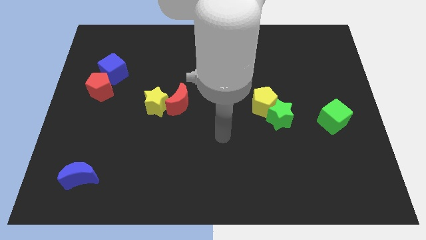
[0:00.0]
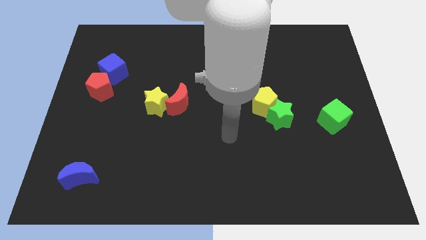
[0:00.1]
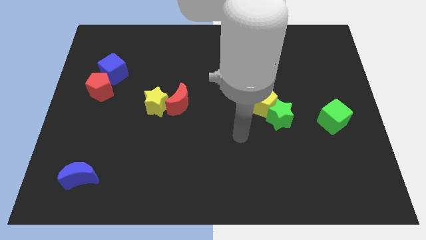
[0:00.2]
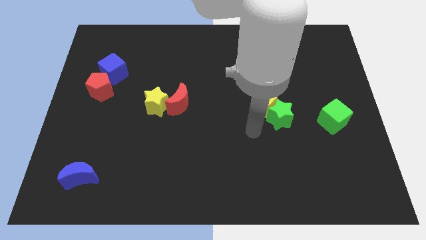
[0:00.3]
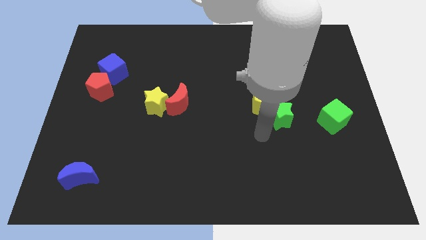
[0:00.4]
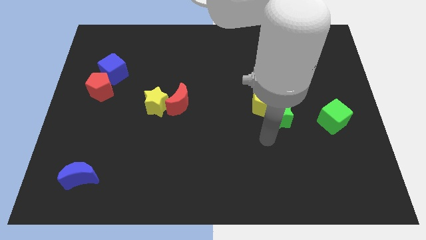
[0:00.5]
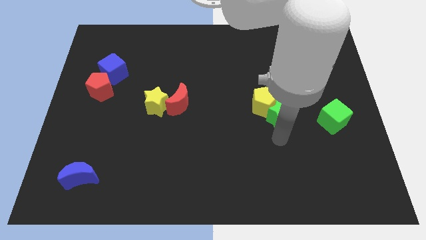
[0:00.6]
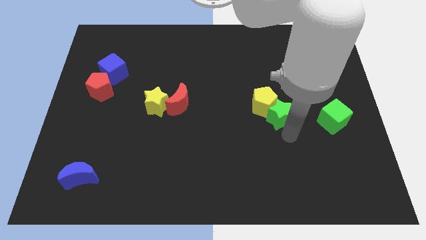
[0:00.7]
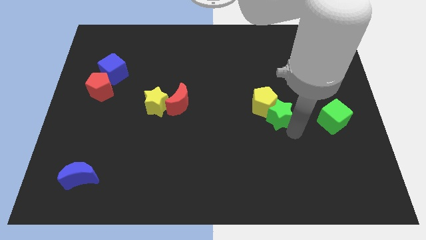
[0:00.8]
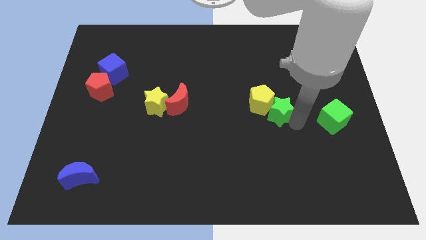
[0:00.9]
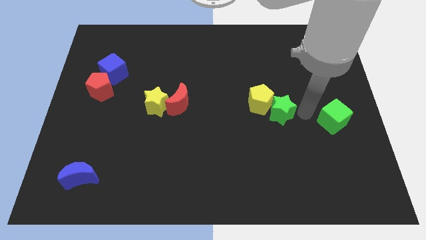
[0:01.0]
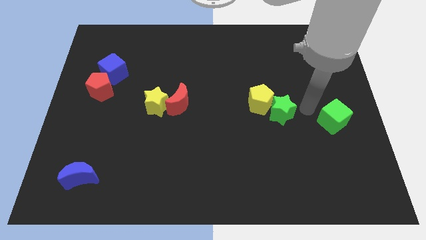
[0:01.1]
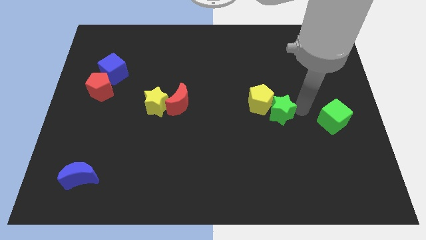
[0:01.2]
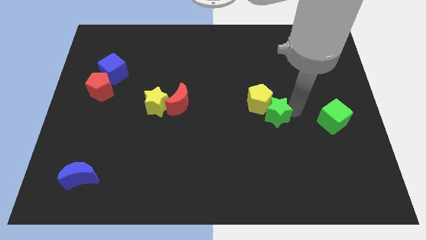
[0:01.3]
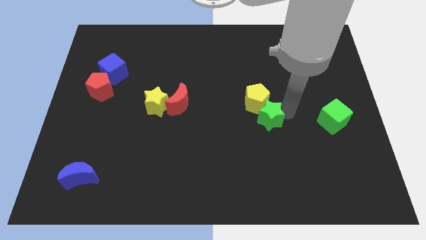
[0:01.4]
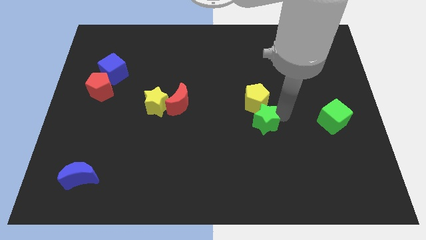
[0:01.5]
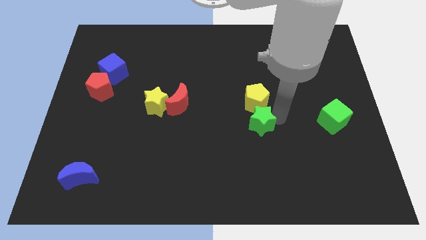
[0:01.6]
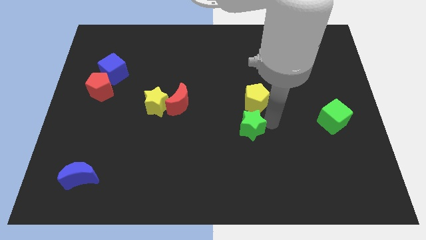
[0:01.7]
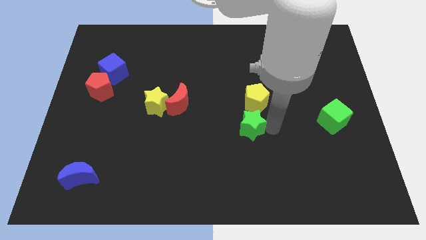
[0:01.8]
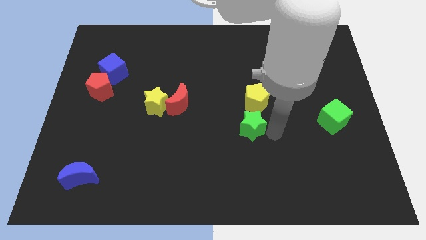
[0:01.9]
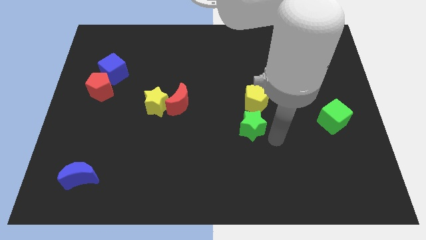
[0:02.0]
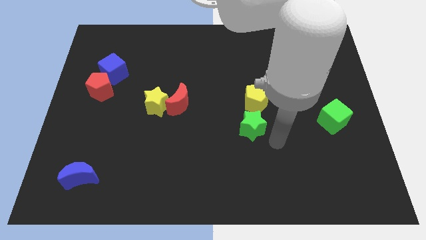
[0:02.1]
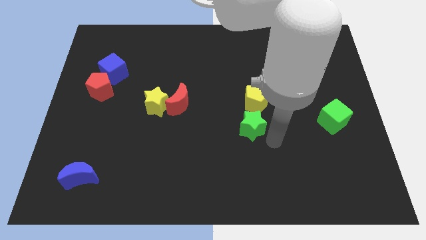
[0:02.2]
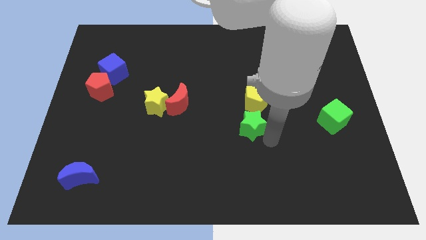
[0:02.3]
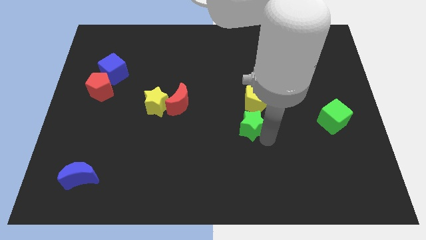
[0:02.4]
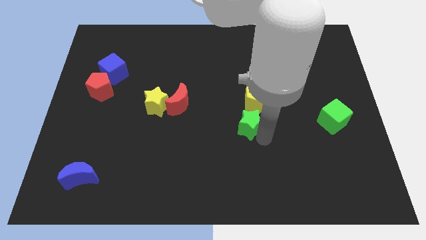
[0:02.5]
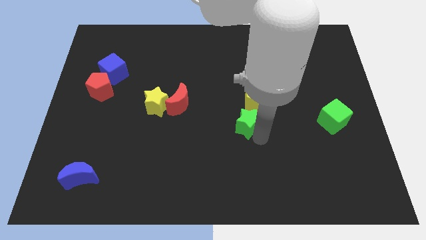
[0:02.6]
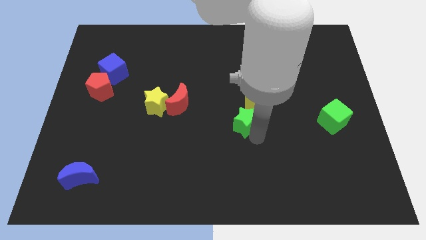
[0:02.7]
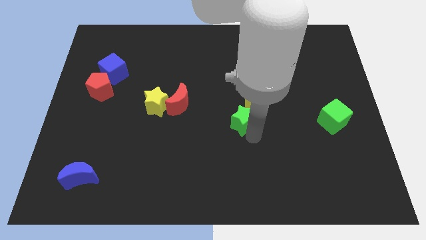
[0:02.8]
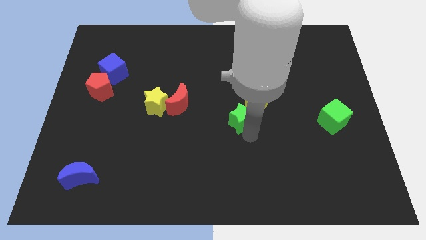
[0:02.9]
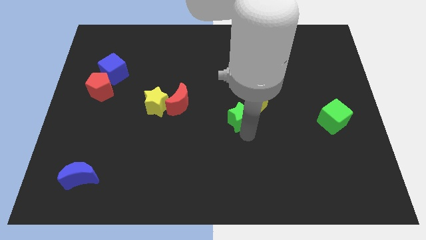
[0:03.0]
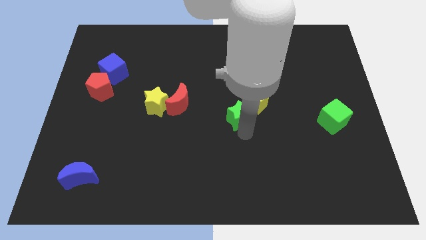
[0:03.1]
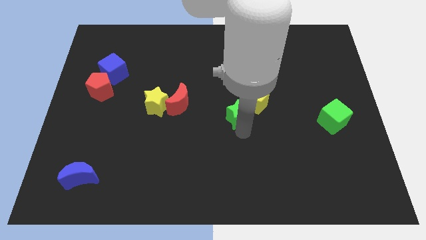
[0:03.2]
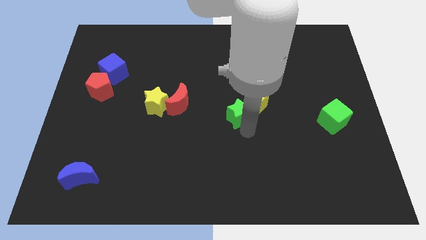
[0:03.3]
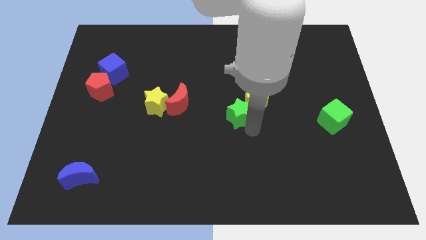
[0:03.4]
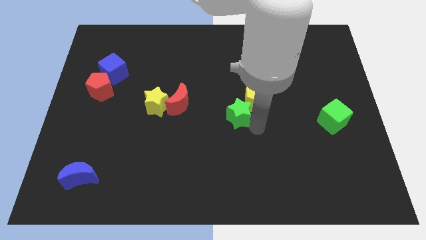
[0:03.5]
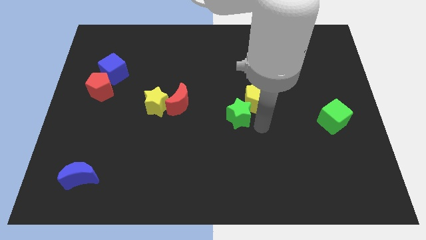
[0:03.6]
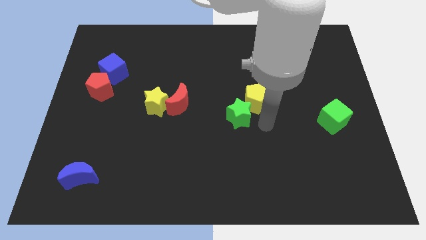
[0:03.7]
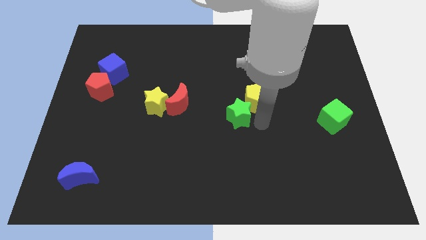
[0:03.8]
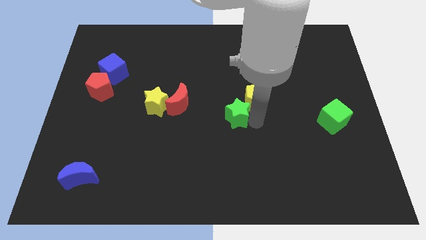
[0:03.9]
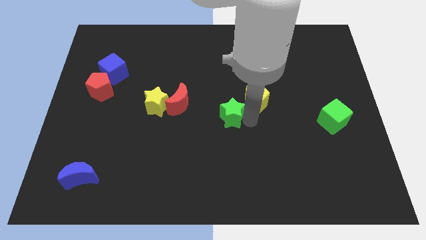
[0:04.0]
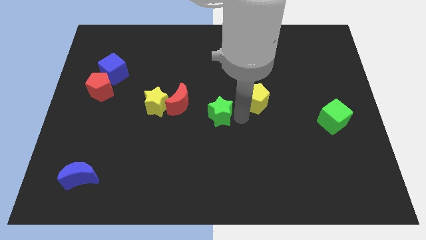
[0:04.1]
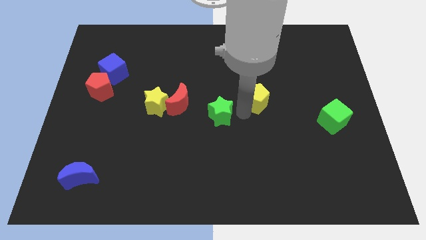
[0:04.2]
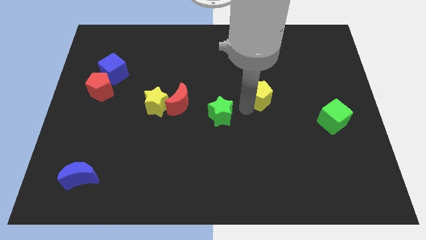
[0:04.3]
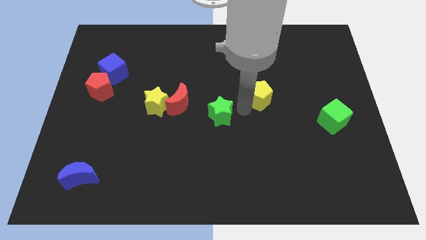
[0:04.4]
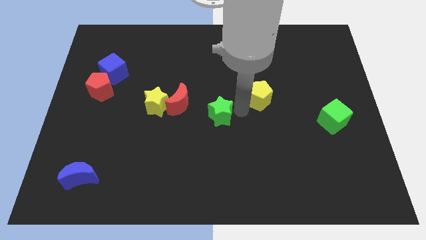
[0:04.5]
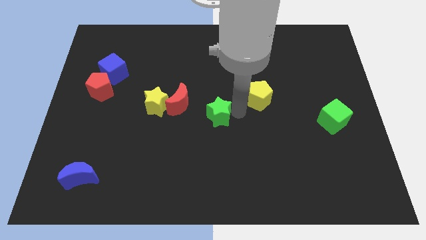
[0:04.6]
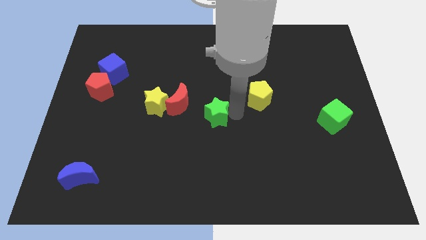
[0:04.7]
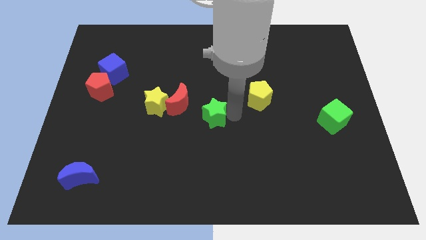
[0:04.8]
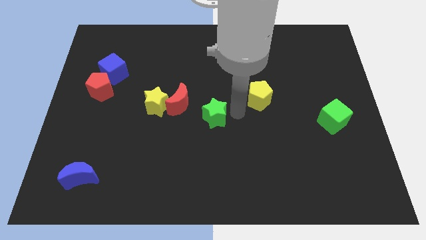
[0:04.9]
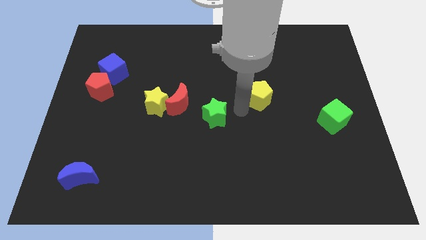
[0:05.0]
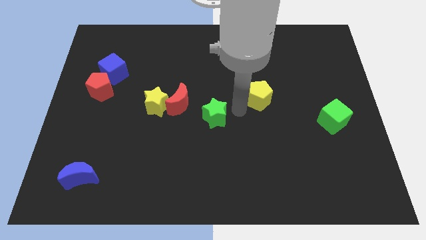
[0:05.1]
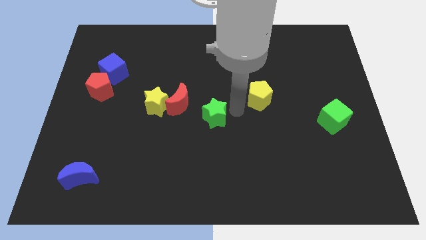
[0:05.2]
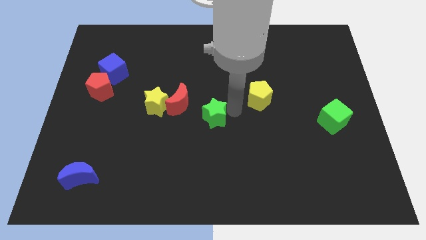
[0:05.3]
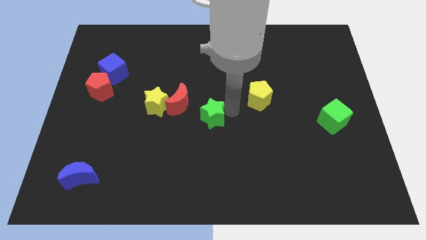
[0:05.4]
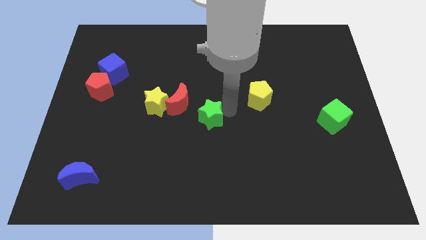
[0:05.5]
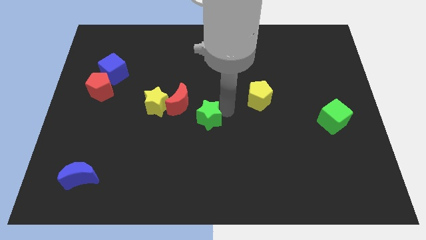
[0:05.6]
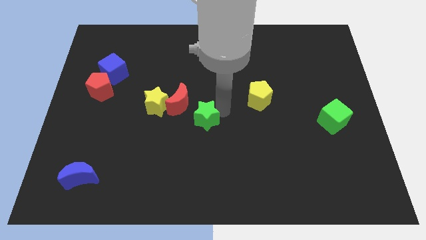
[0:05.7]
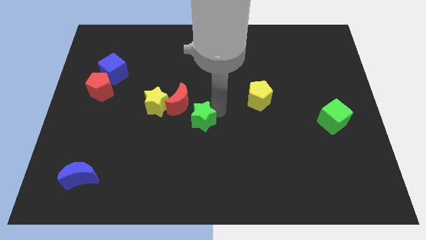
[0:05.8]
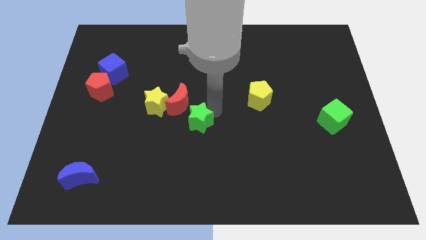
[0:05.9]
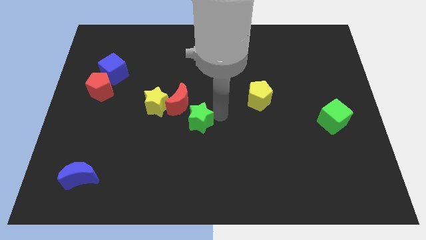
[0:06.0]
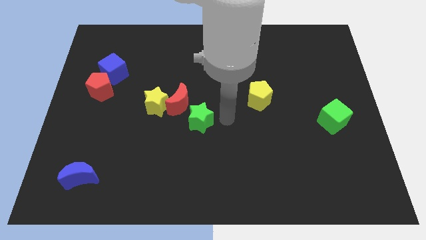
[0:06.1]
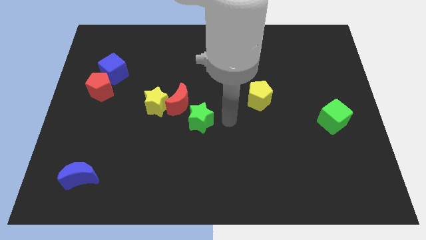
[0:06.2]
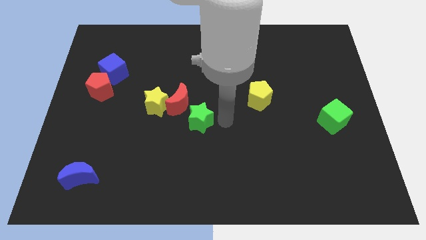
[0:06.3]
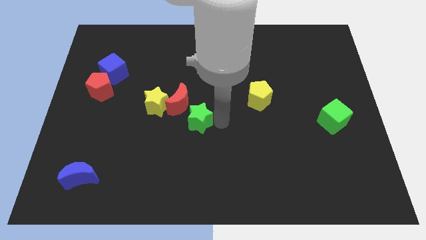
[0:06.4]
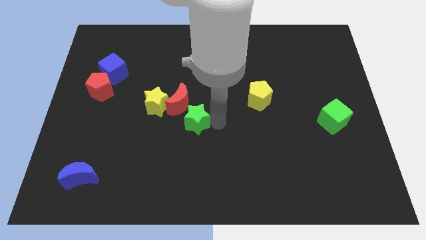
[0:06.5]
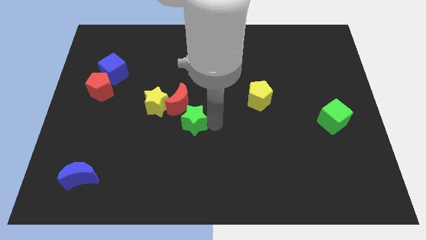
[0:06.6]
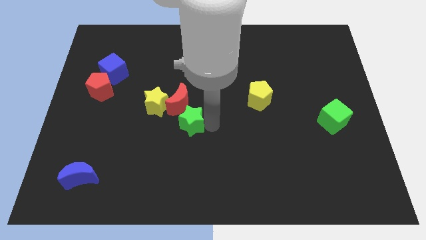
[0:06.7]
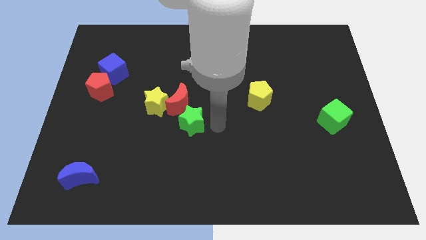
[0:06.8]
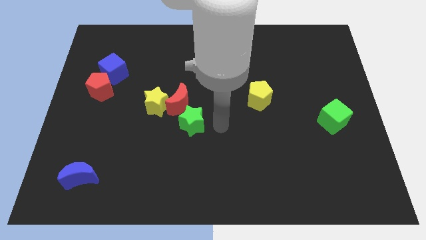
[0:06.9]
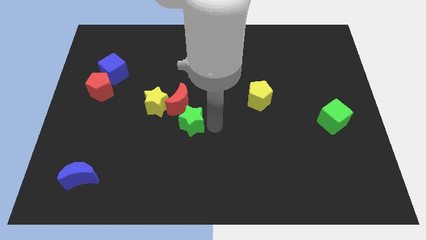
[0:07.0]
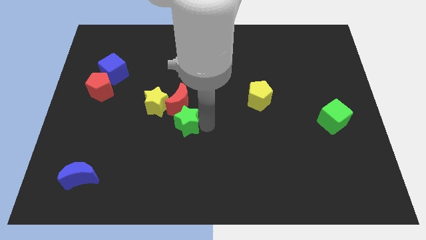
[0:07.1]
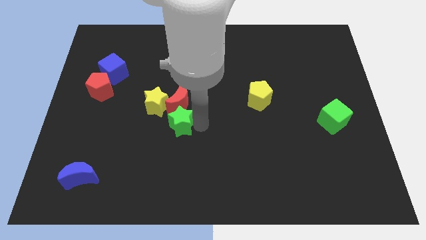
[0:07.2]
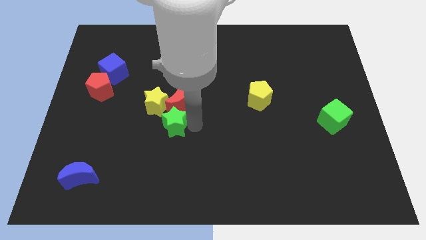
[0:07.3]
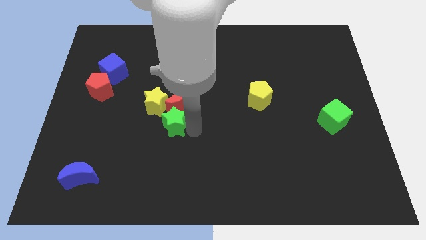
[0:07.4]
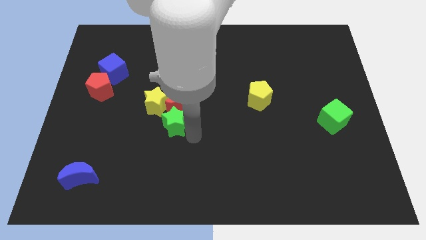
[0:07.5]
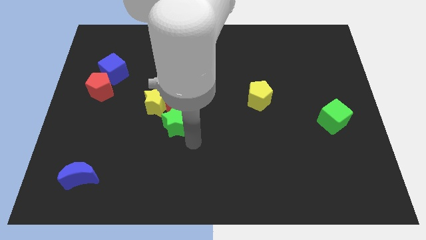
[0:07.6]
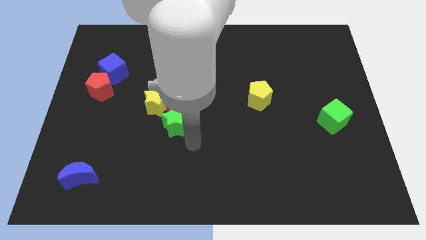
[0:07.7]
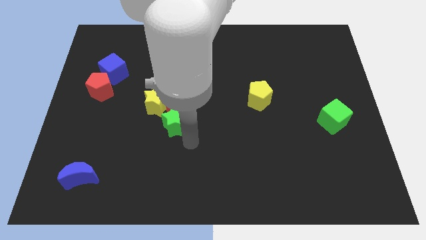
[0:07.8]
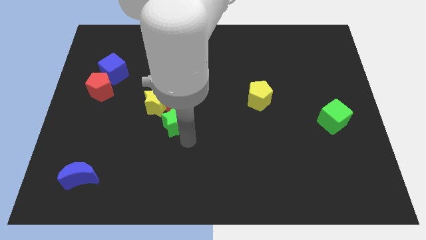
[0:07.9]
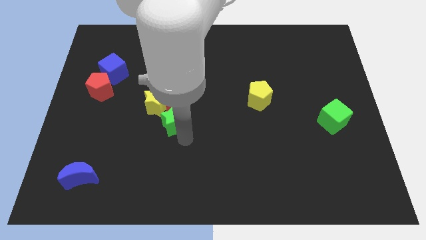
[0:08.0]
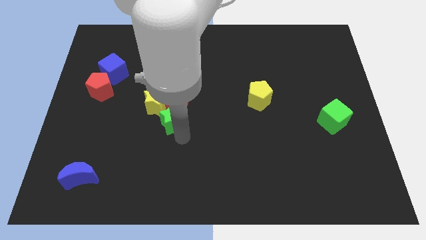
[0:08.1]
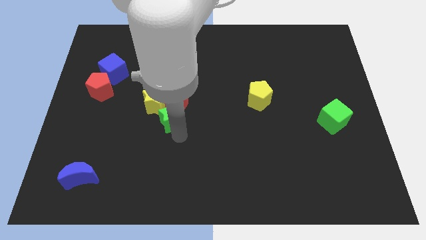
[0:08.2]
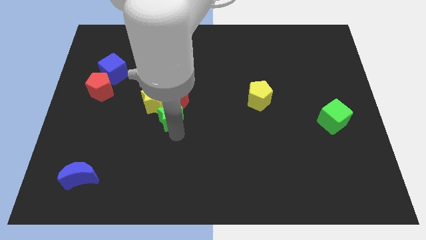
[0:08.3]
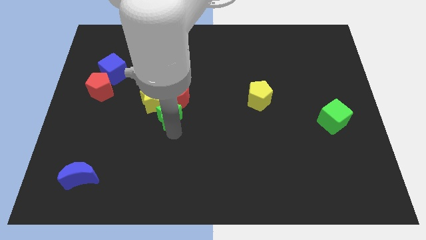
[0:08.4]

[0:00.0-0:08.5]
push the green star close to the yellow star
